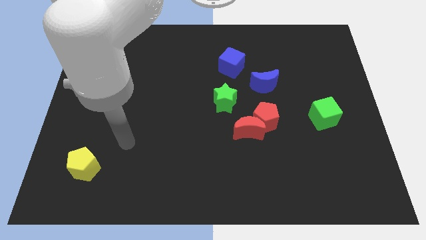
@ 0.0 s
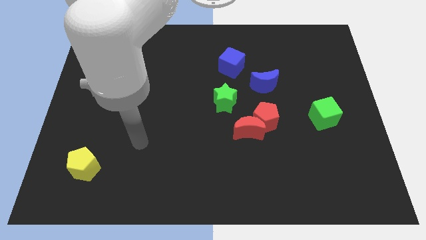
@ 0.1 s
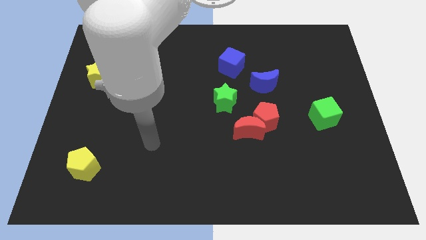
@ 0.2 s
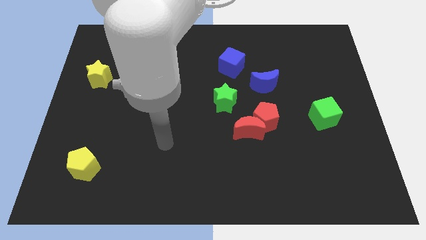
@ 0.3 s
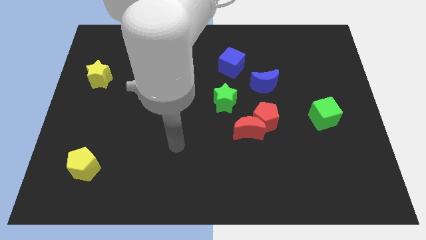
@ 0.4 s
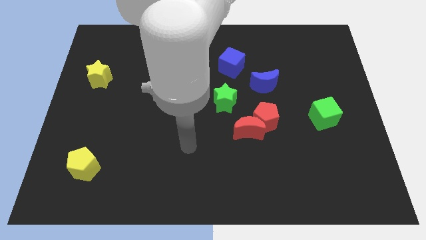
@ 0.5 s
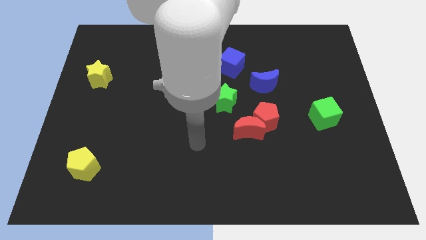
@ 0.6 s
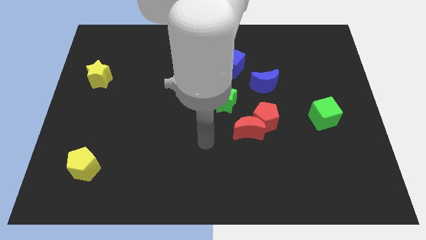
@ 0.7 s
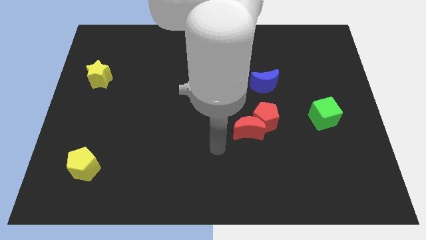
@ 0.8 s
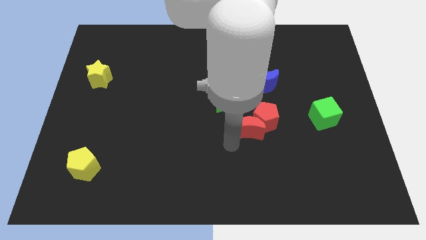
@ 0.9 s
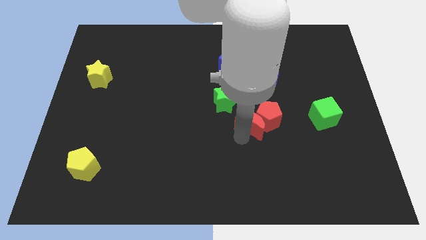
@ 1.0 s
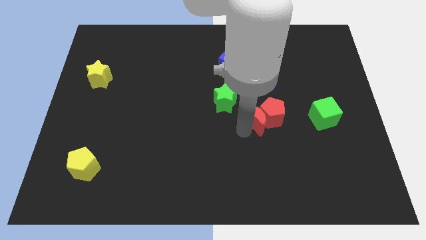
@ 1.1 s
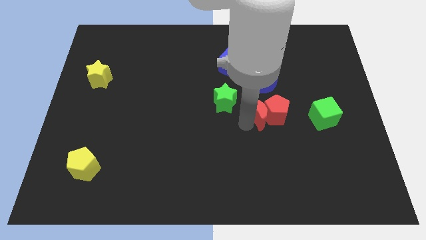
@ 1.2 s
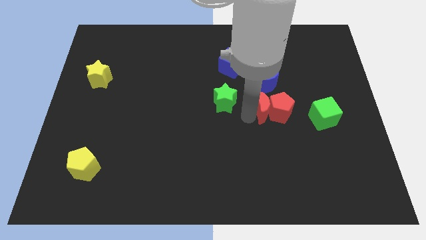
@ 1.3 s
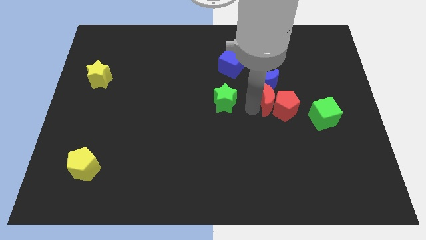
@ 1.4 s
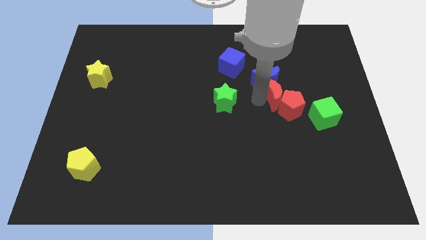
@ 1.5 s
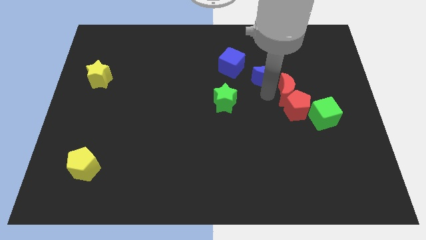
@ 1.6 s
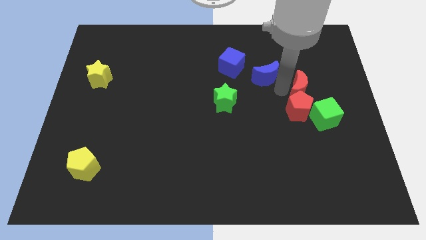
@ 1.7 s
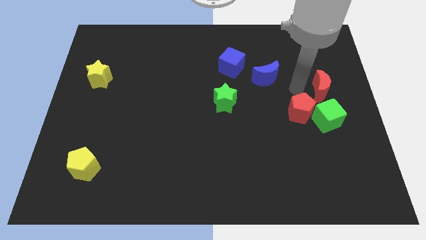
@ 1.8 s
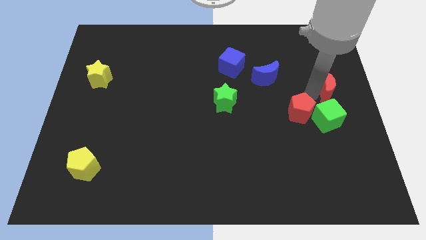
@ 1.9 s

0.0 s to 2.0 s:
separate the red pentagon from the red moon

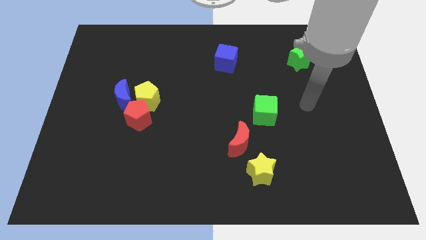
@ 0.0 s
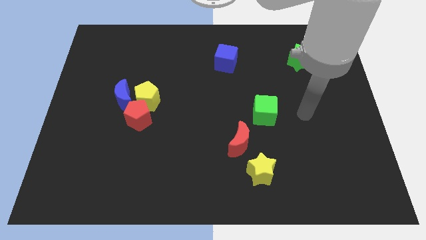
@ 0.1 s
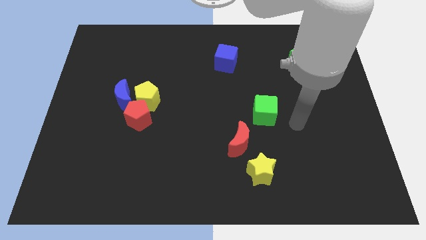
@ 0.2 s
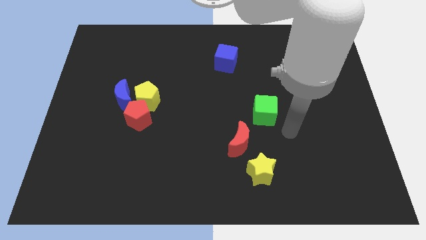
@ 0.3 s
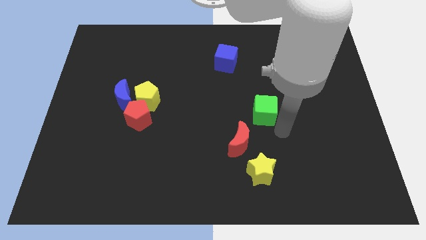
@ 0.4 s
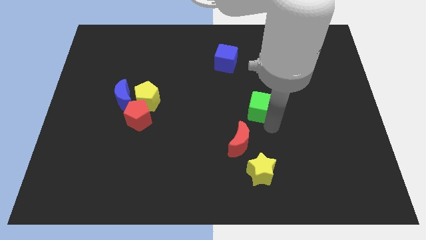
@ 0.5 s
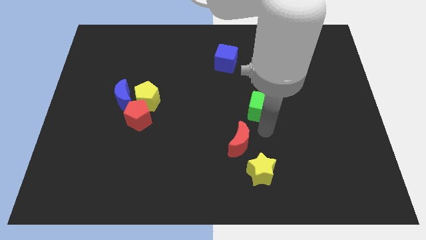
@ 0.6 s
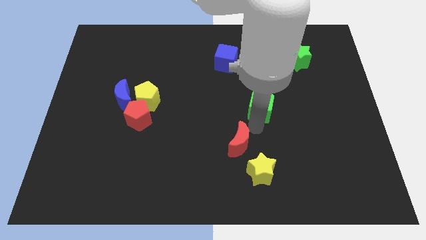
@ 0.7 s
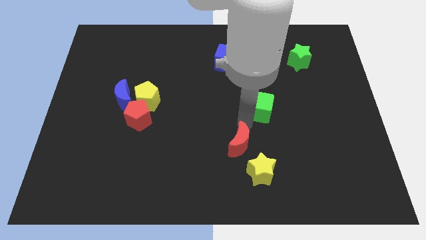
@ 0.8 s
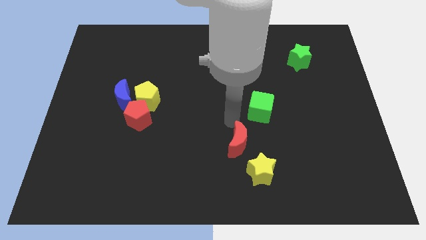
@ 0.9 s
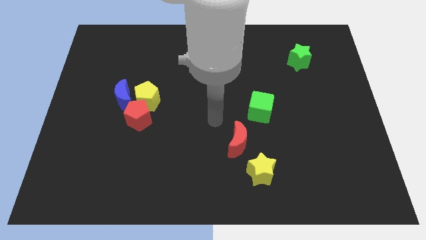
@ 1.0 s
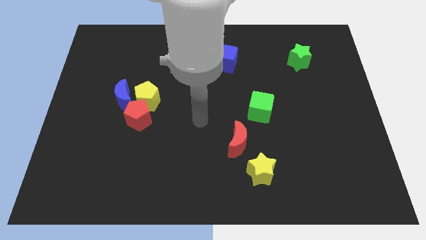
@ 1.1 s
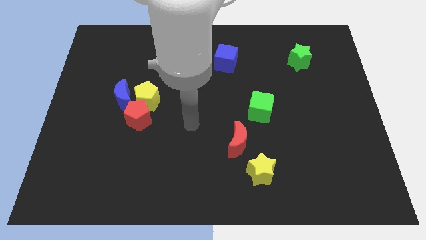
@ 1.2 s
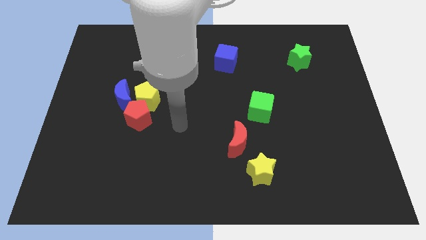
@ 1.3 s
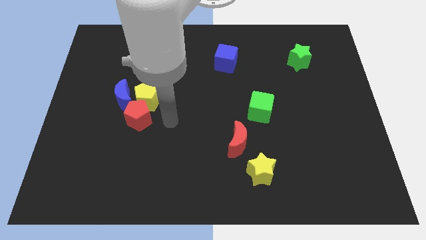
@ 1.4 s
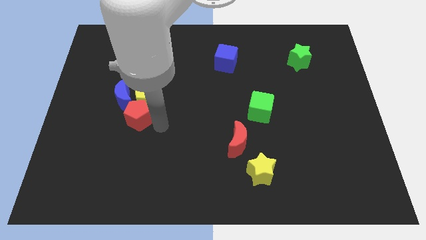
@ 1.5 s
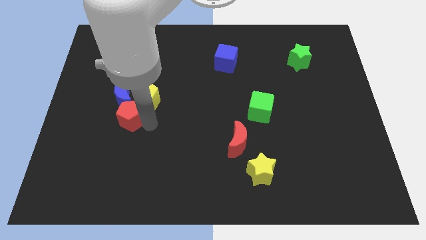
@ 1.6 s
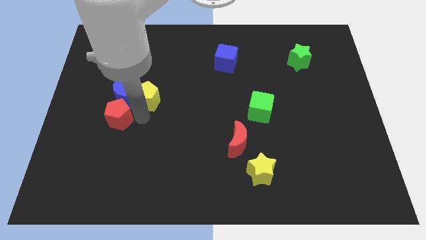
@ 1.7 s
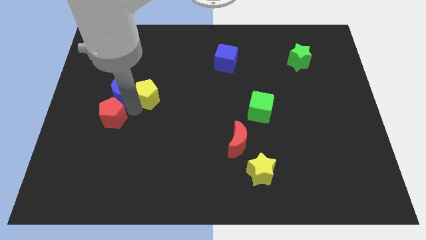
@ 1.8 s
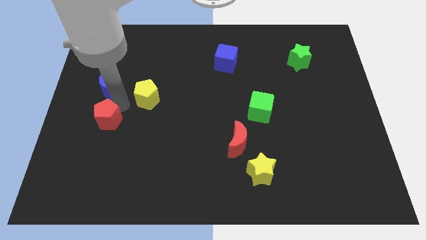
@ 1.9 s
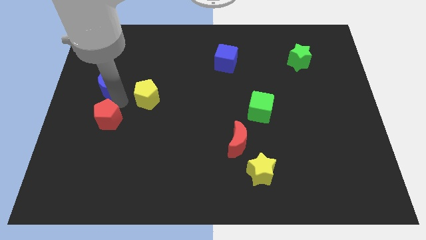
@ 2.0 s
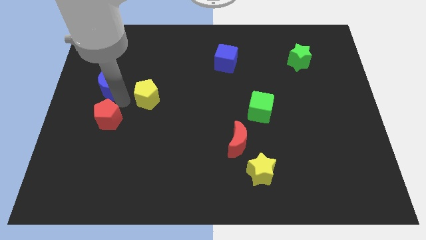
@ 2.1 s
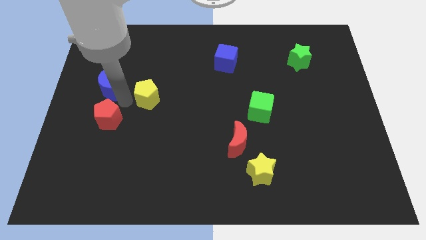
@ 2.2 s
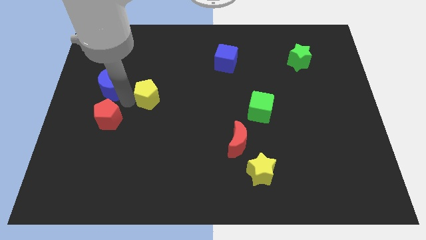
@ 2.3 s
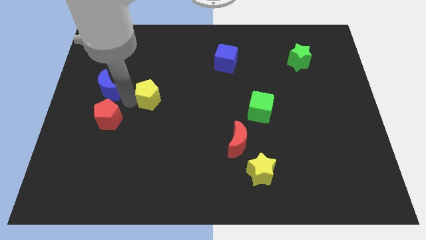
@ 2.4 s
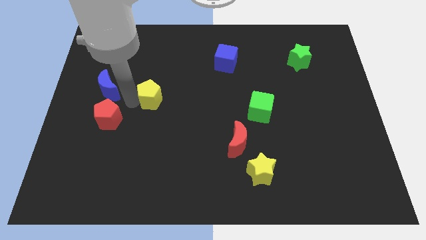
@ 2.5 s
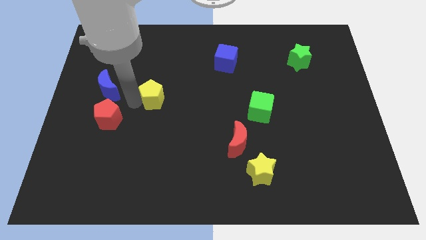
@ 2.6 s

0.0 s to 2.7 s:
separate the yellow pentagon from the blue moon and red pentagon

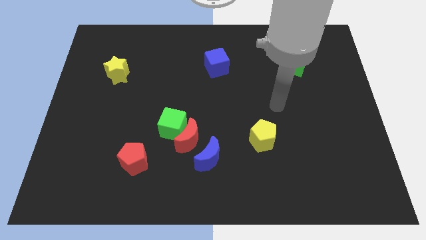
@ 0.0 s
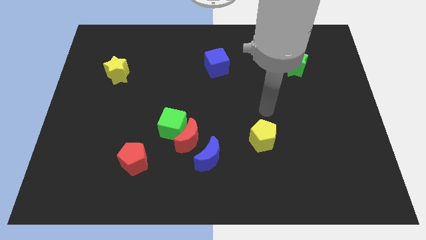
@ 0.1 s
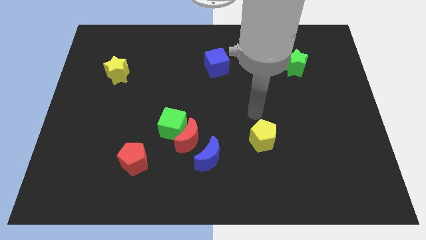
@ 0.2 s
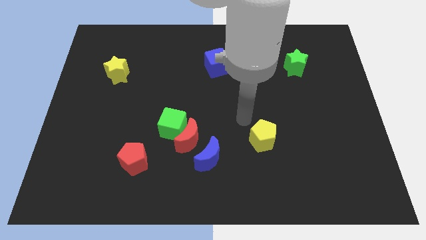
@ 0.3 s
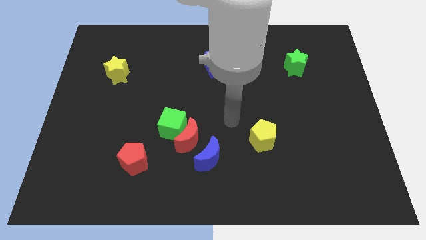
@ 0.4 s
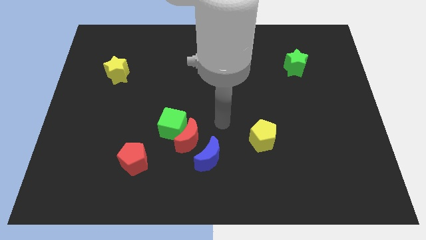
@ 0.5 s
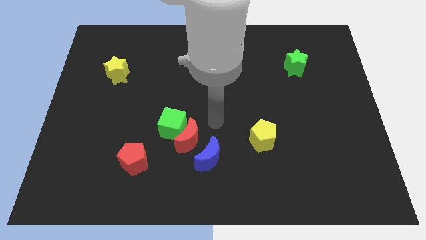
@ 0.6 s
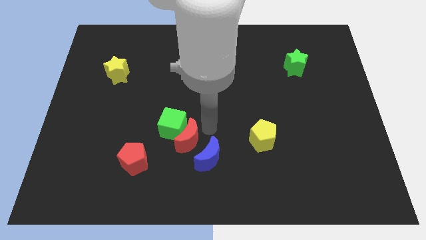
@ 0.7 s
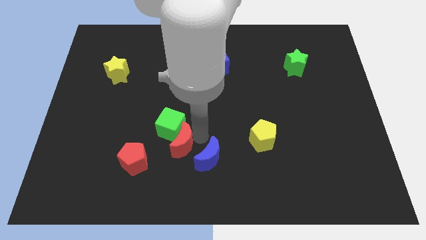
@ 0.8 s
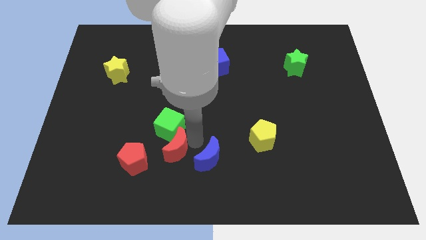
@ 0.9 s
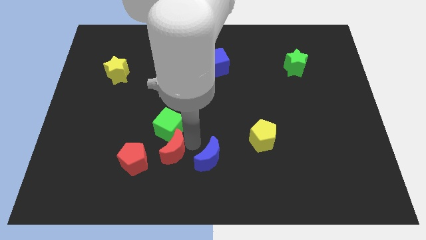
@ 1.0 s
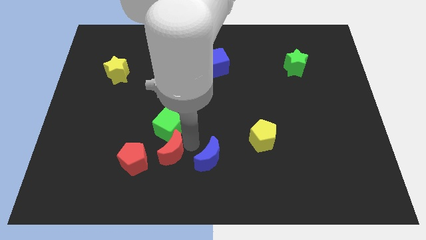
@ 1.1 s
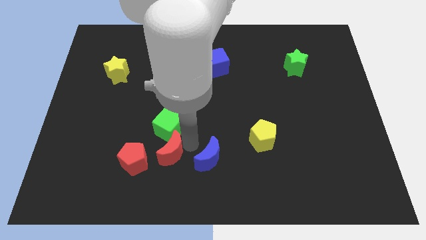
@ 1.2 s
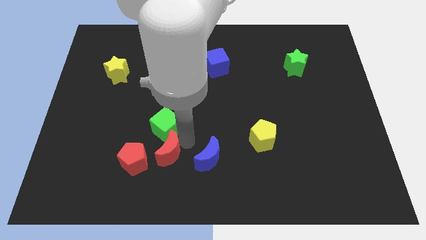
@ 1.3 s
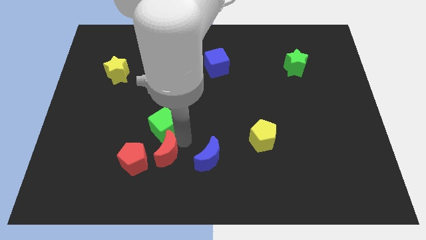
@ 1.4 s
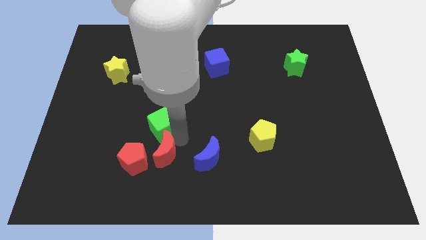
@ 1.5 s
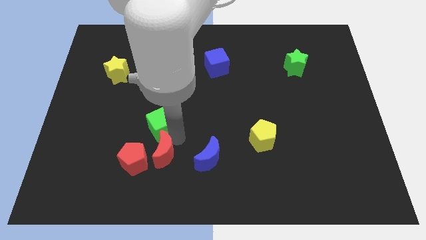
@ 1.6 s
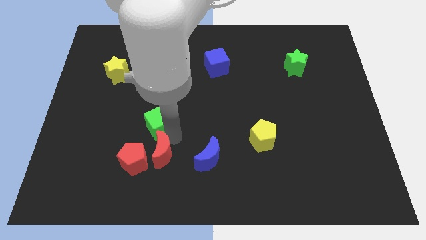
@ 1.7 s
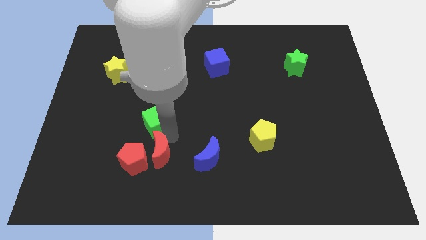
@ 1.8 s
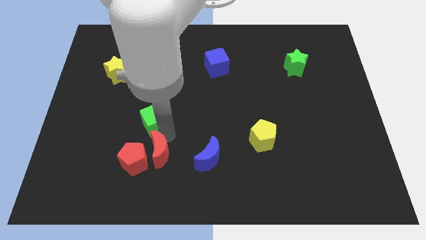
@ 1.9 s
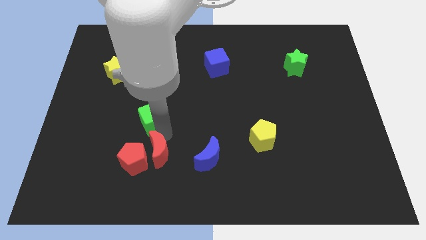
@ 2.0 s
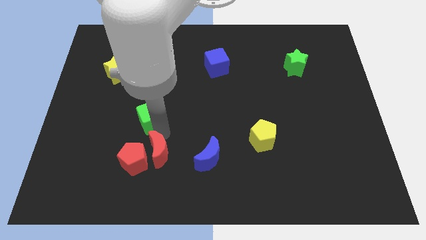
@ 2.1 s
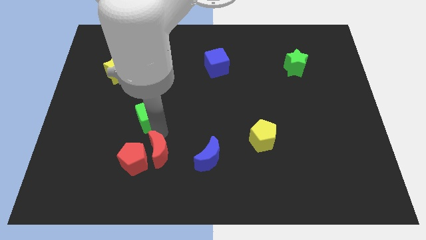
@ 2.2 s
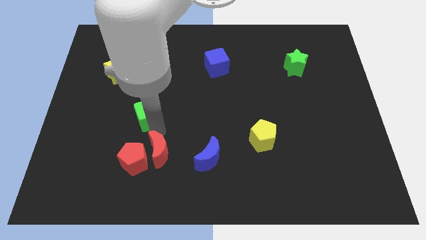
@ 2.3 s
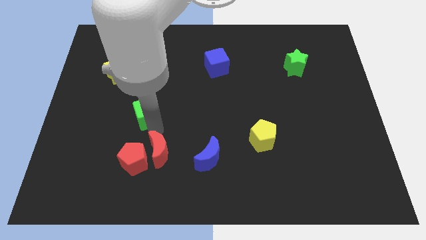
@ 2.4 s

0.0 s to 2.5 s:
separate the green cube from the red moon

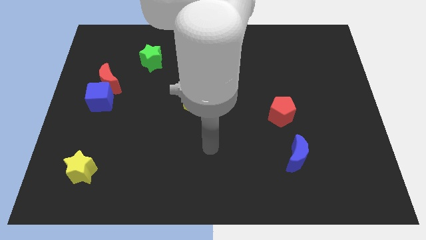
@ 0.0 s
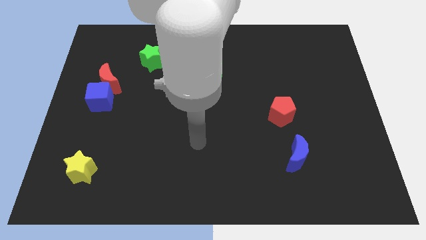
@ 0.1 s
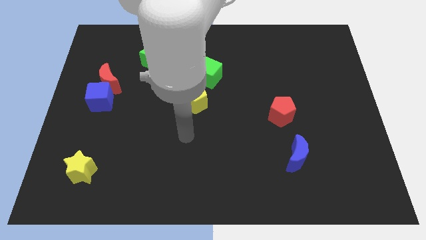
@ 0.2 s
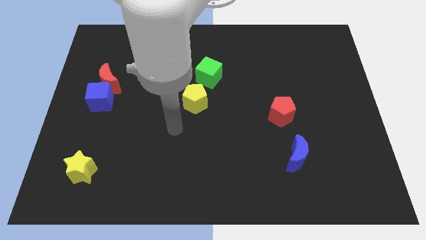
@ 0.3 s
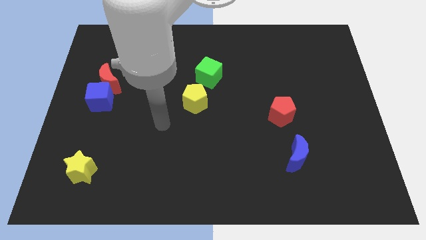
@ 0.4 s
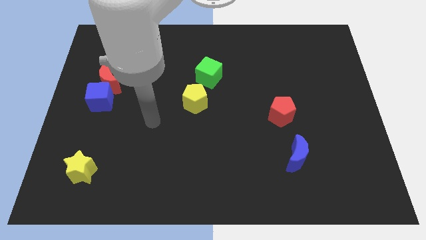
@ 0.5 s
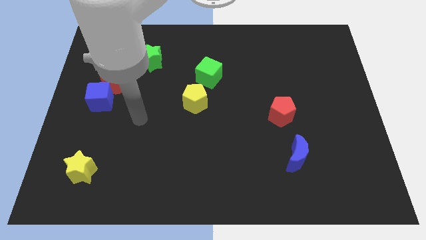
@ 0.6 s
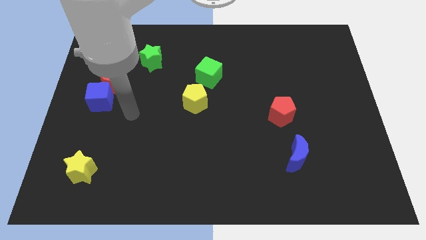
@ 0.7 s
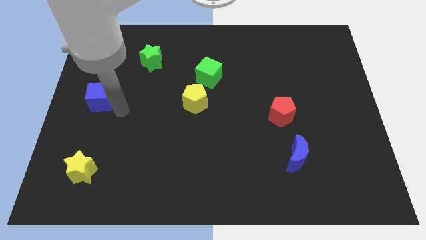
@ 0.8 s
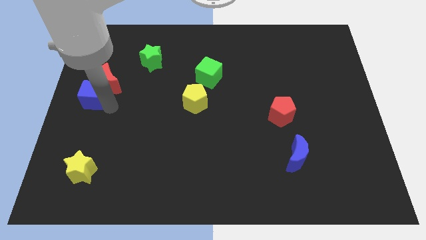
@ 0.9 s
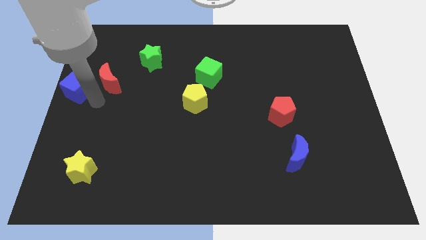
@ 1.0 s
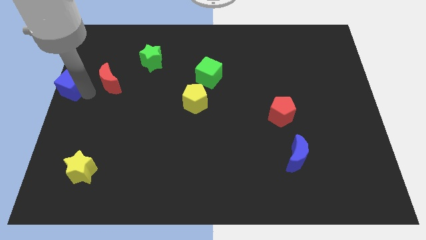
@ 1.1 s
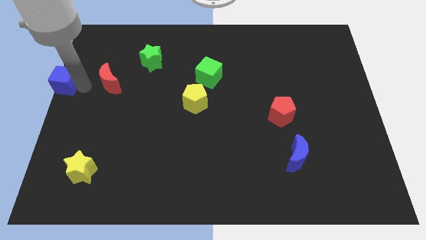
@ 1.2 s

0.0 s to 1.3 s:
separate the red moon from the blue cube

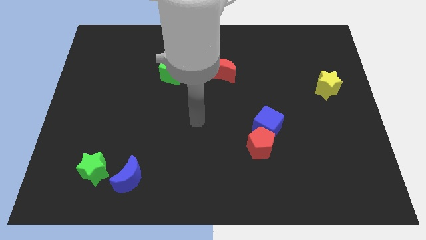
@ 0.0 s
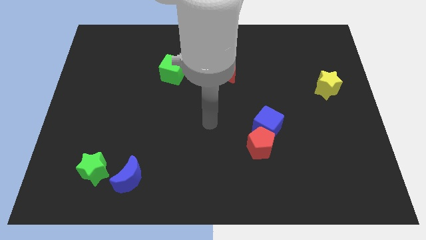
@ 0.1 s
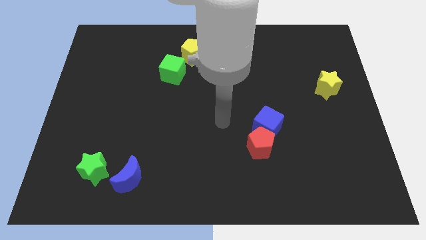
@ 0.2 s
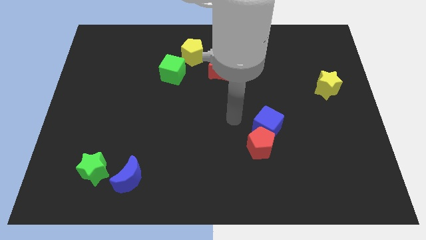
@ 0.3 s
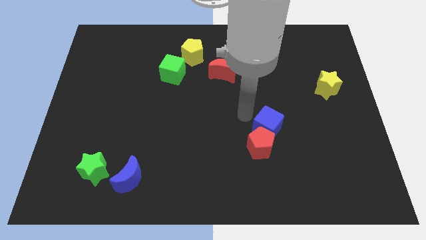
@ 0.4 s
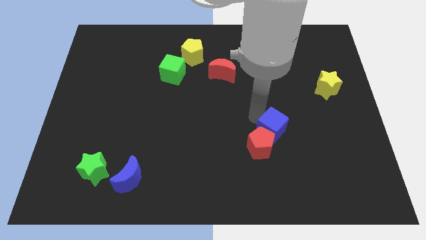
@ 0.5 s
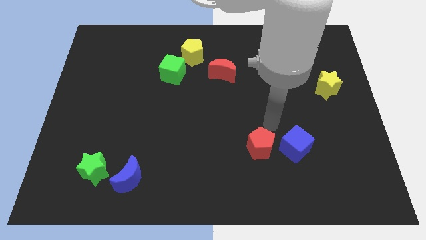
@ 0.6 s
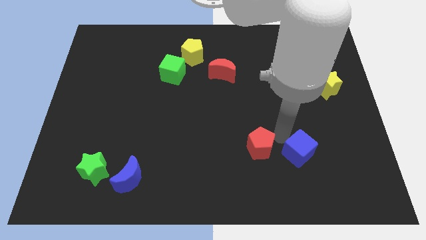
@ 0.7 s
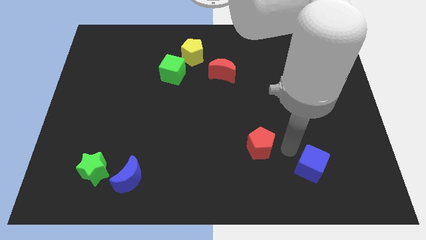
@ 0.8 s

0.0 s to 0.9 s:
separate the red pentagon from the blue cube
